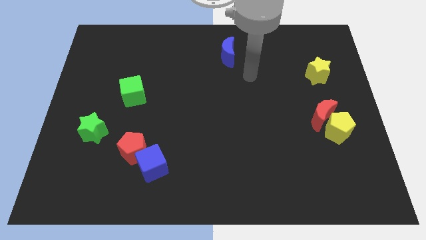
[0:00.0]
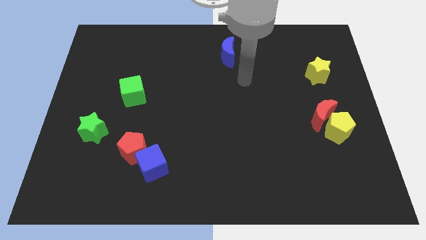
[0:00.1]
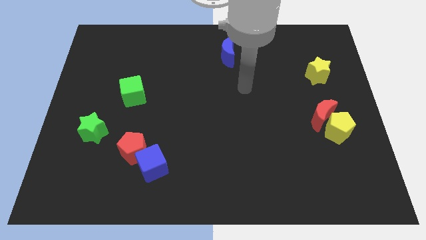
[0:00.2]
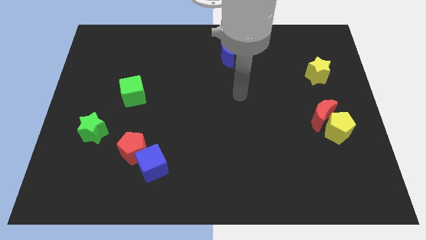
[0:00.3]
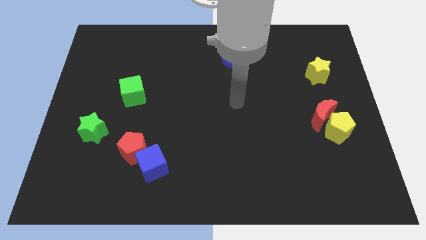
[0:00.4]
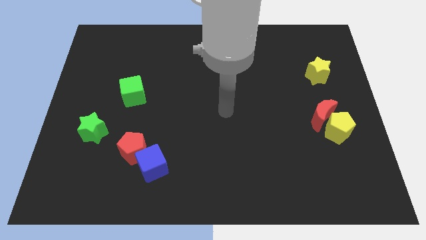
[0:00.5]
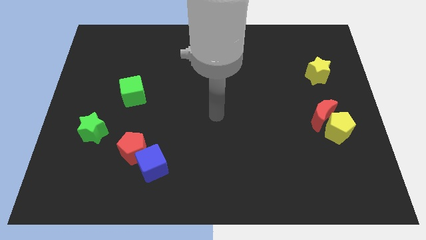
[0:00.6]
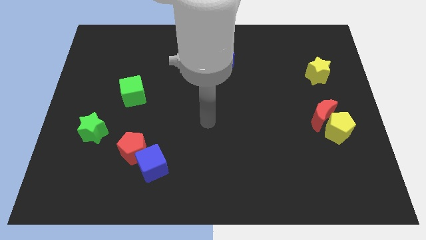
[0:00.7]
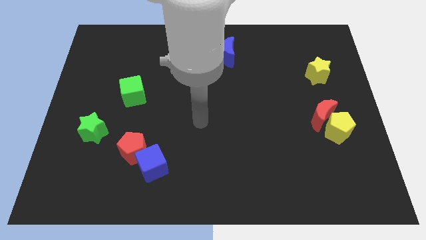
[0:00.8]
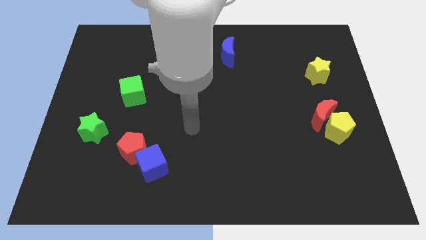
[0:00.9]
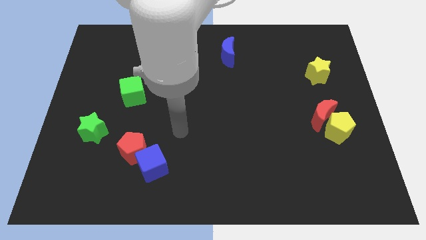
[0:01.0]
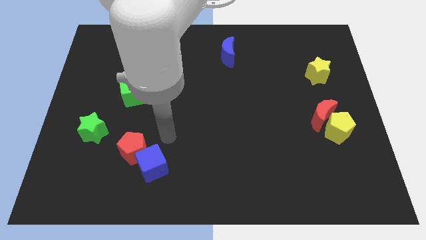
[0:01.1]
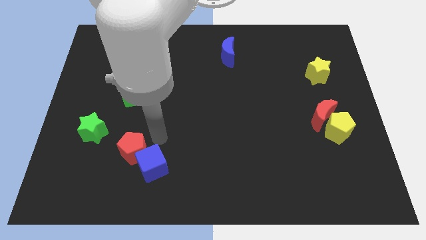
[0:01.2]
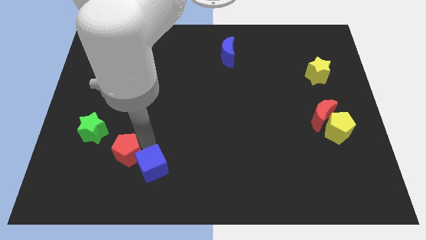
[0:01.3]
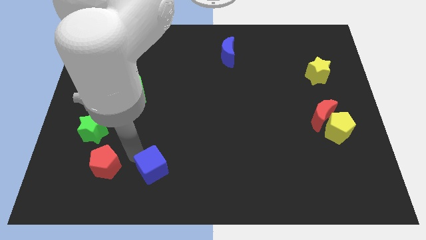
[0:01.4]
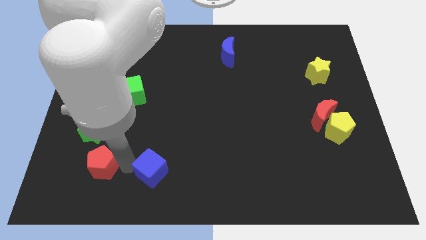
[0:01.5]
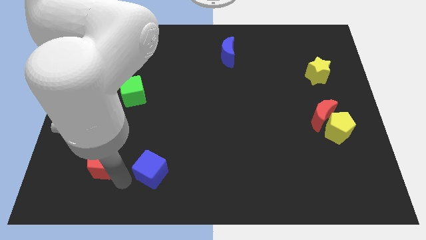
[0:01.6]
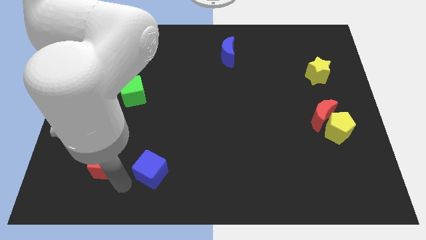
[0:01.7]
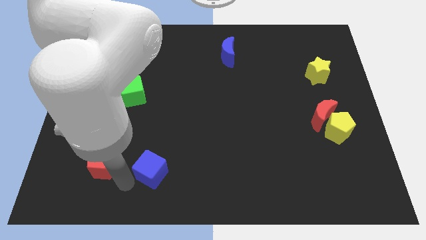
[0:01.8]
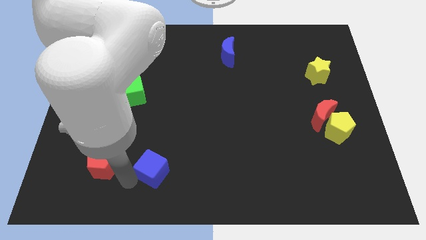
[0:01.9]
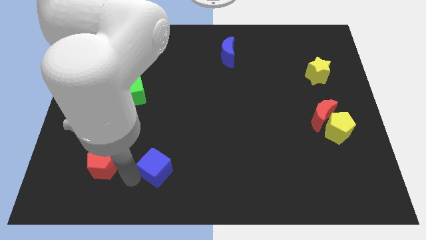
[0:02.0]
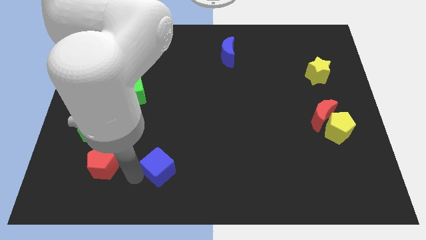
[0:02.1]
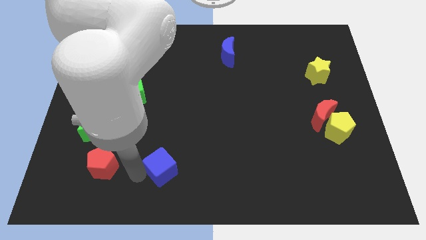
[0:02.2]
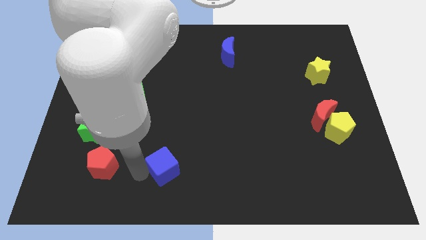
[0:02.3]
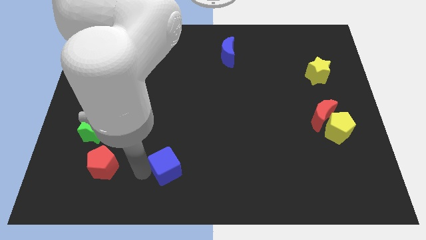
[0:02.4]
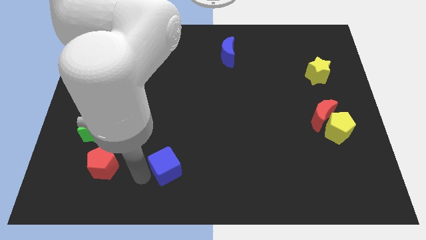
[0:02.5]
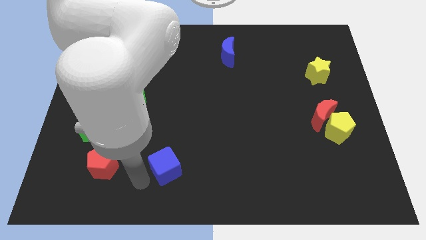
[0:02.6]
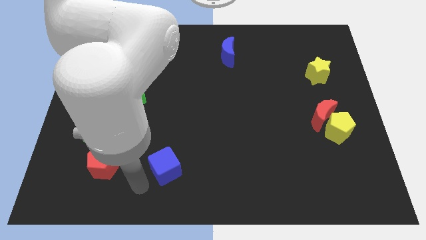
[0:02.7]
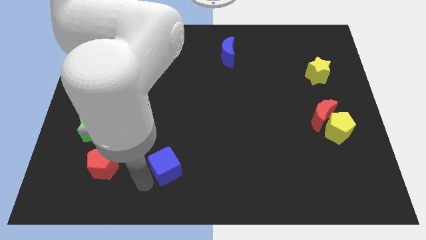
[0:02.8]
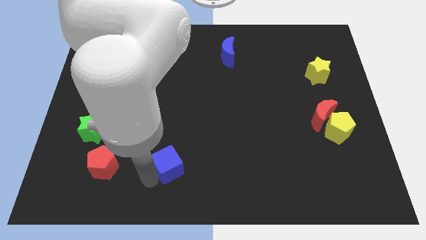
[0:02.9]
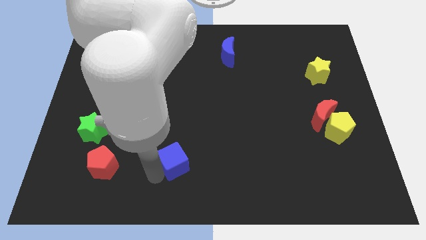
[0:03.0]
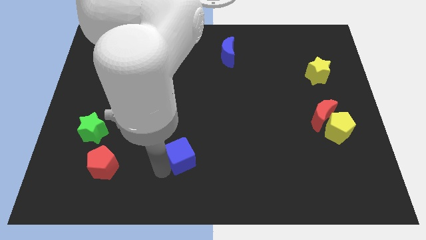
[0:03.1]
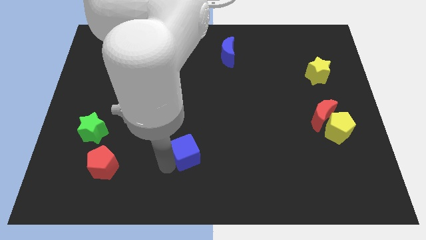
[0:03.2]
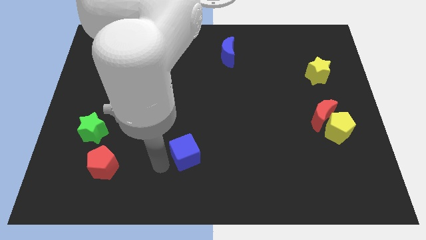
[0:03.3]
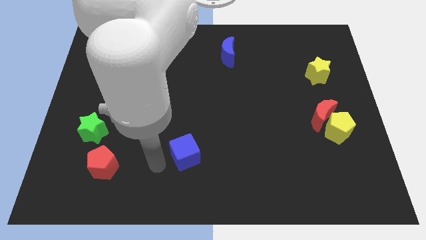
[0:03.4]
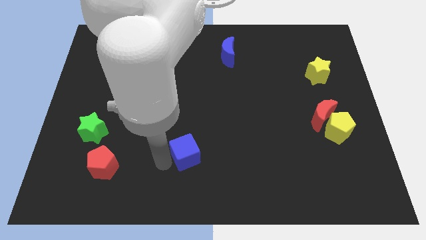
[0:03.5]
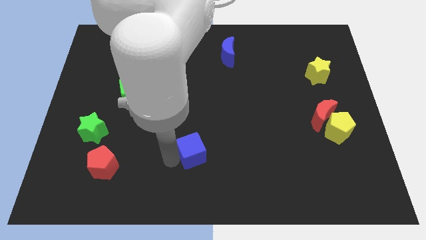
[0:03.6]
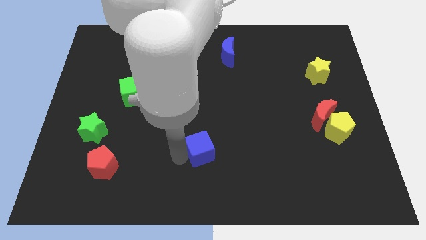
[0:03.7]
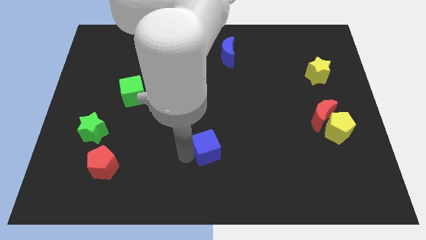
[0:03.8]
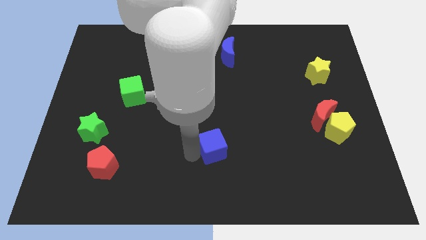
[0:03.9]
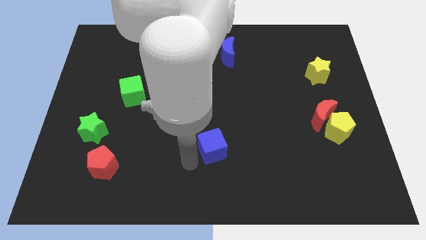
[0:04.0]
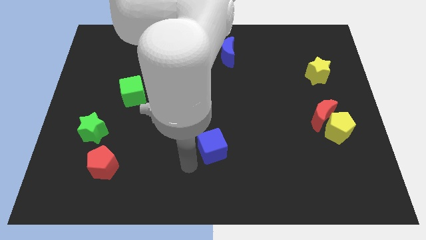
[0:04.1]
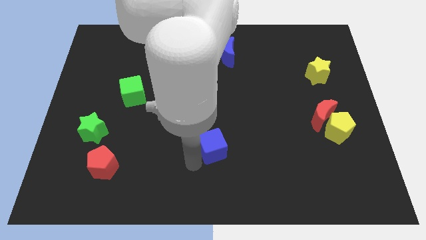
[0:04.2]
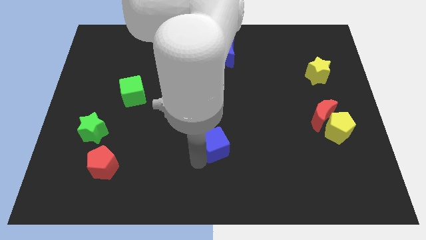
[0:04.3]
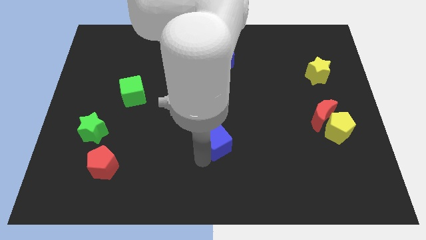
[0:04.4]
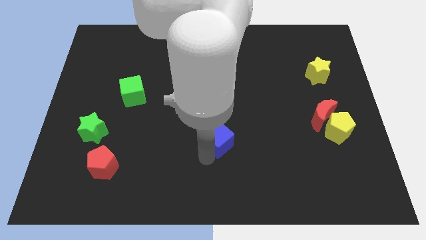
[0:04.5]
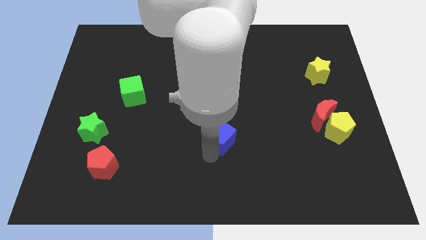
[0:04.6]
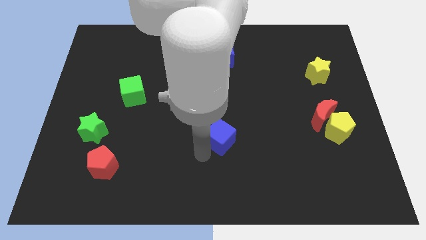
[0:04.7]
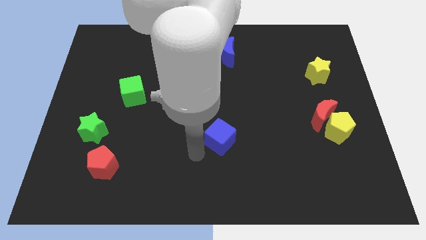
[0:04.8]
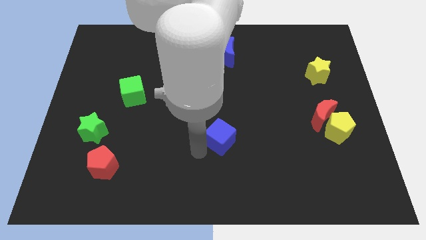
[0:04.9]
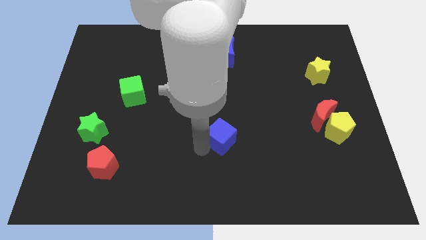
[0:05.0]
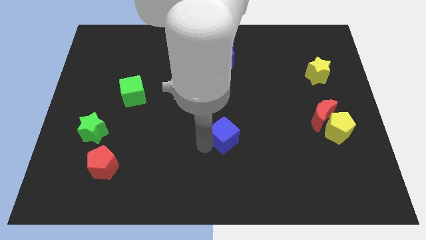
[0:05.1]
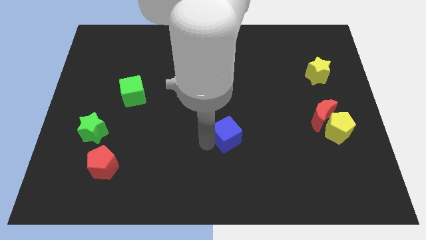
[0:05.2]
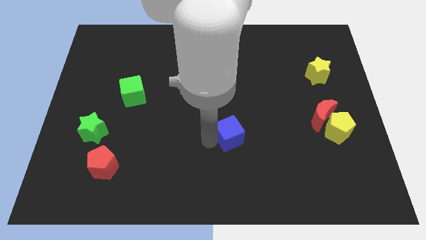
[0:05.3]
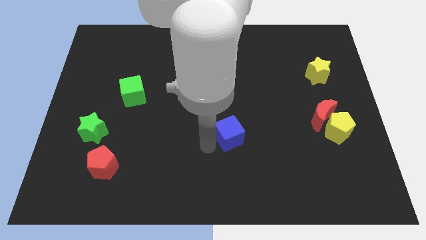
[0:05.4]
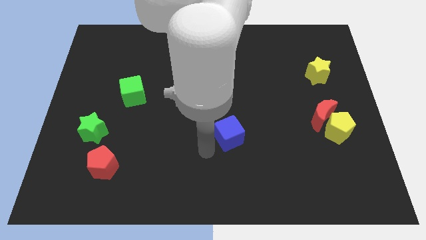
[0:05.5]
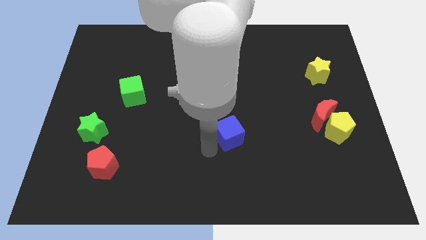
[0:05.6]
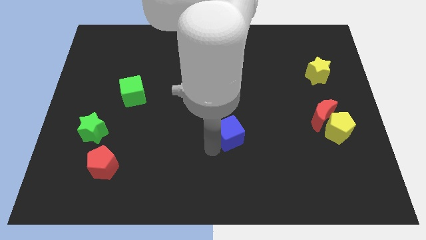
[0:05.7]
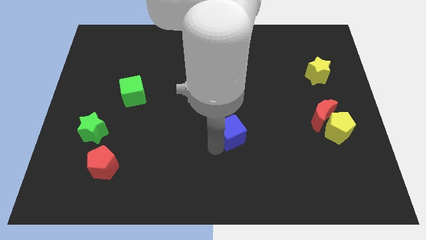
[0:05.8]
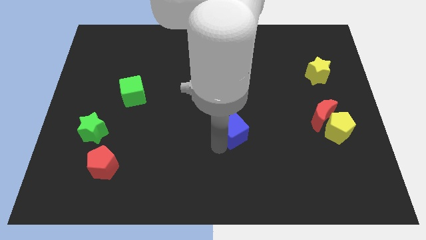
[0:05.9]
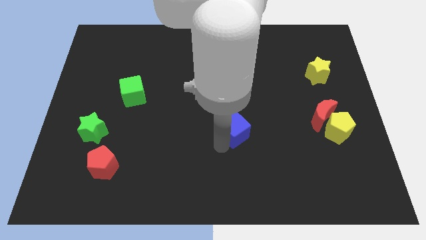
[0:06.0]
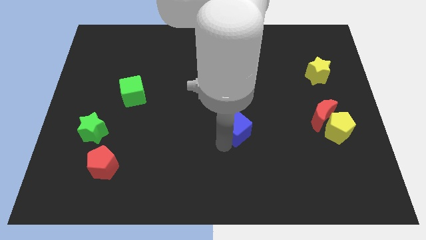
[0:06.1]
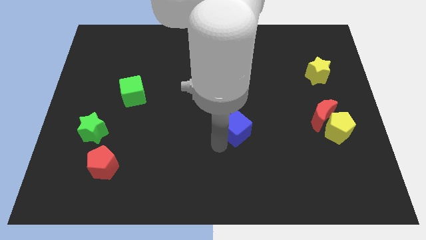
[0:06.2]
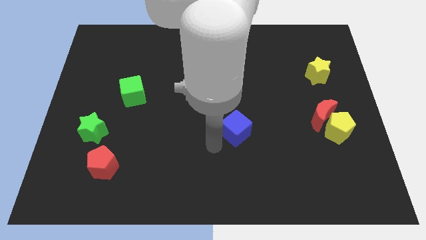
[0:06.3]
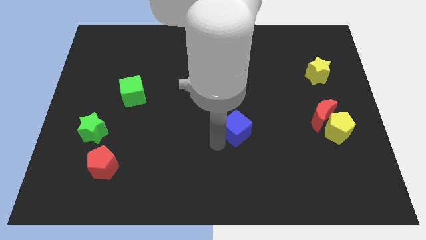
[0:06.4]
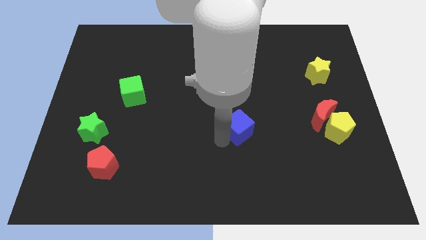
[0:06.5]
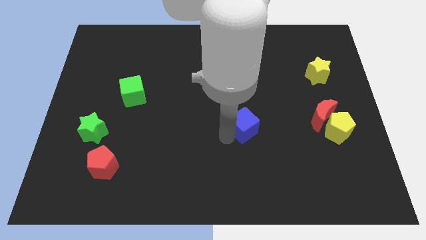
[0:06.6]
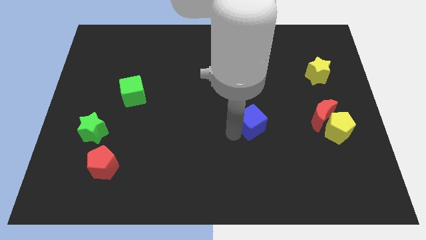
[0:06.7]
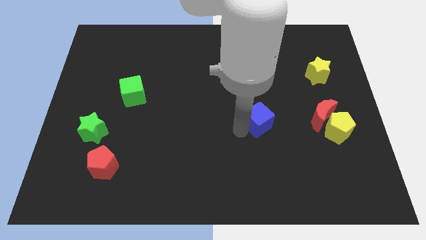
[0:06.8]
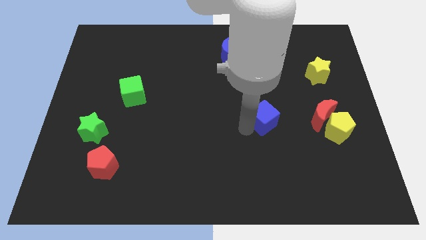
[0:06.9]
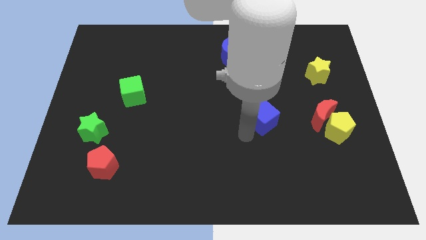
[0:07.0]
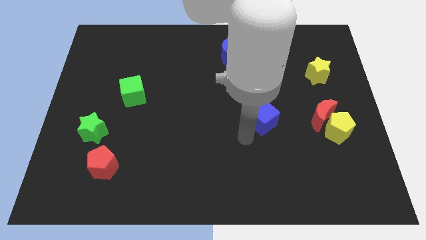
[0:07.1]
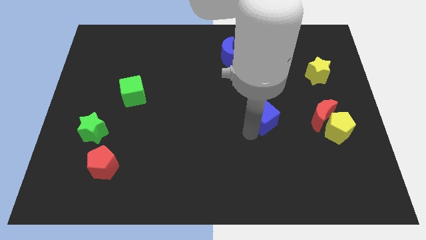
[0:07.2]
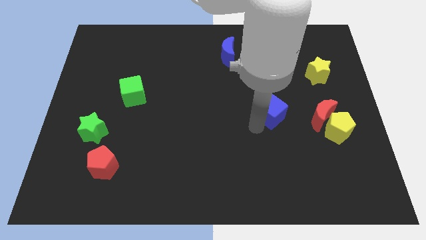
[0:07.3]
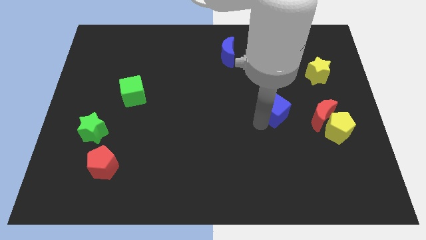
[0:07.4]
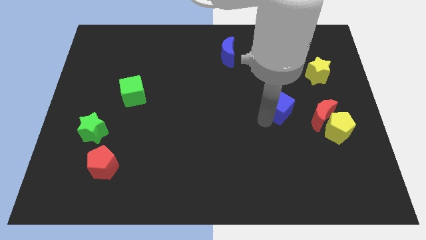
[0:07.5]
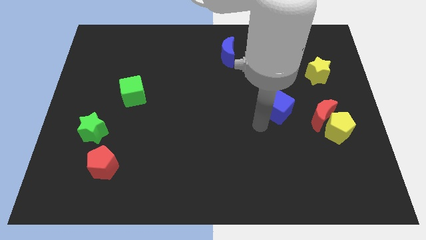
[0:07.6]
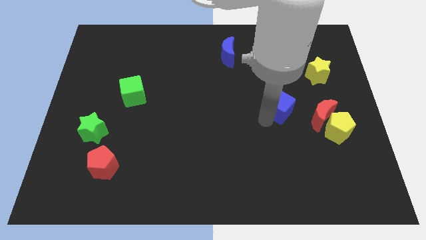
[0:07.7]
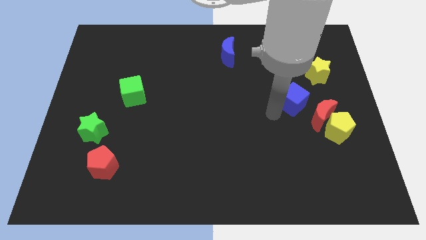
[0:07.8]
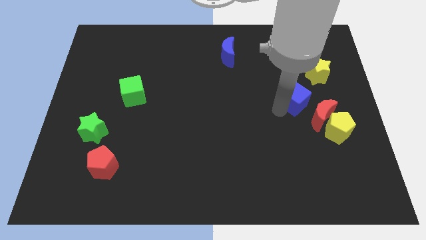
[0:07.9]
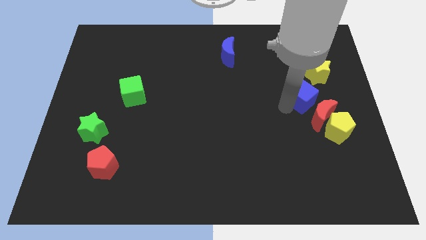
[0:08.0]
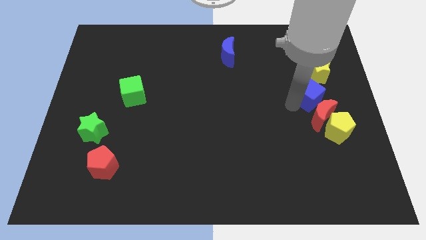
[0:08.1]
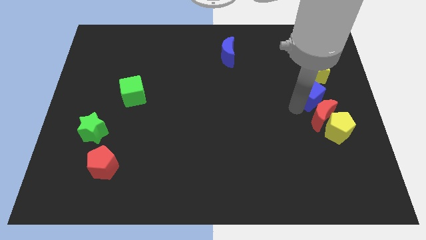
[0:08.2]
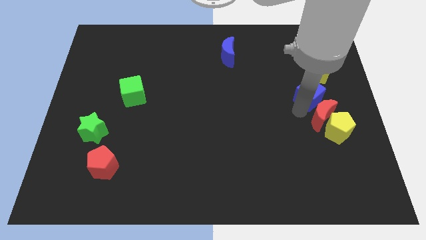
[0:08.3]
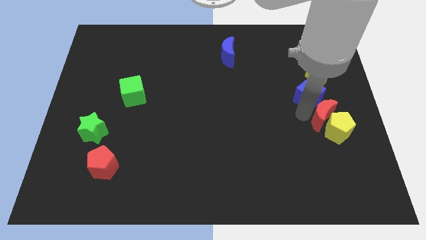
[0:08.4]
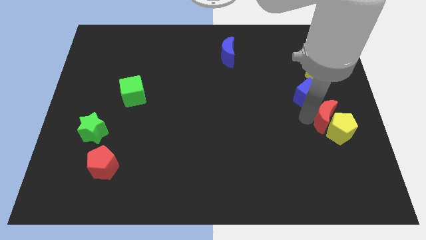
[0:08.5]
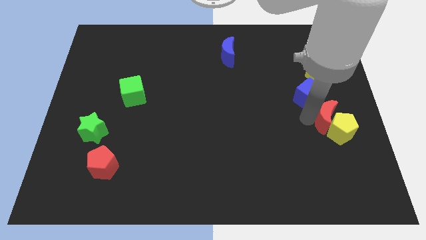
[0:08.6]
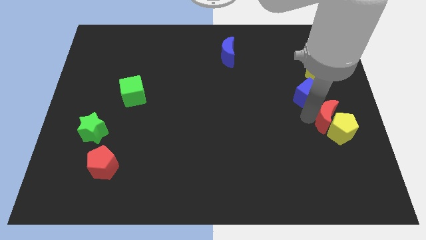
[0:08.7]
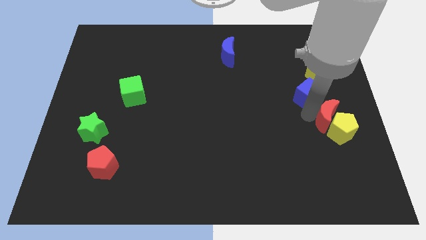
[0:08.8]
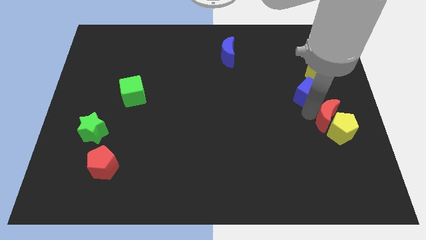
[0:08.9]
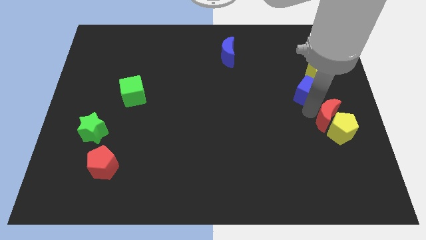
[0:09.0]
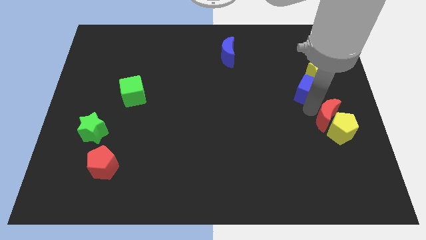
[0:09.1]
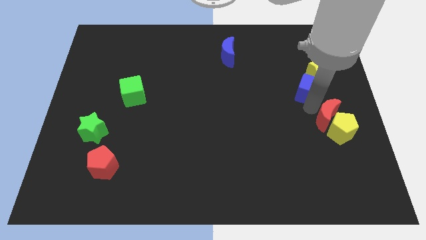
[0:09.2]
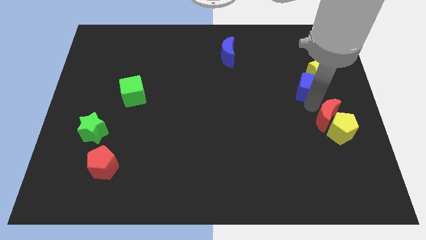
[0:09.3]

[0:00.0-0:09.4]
push the blue cube to the yellow star
